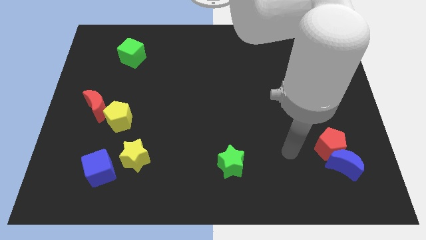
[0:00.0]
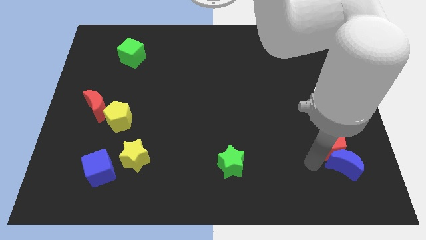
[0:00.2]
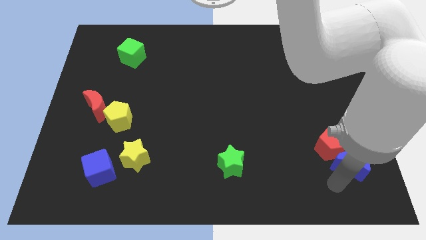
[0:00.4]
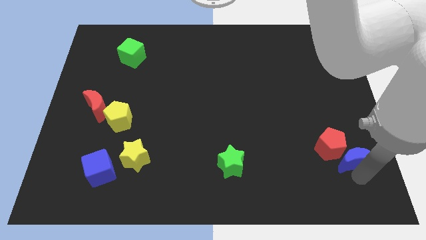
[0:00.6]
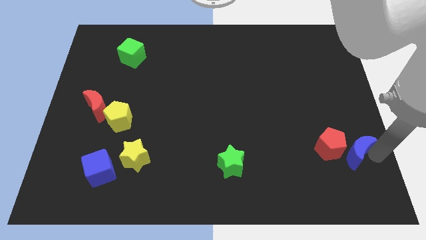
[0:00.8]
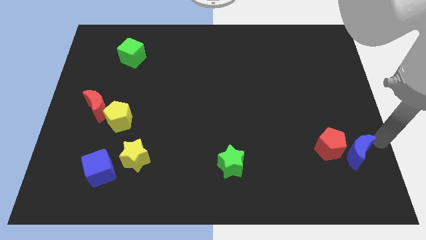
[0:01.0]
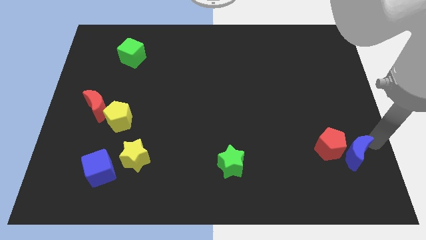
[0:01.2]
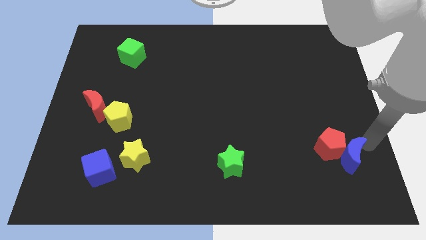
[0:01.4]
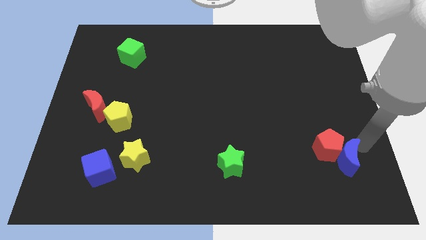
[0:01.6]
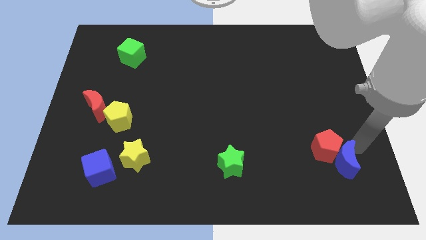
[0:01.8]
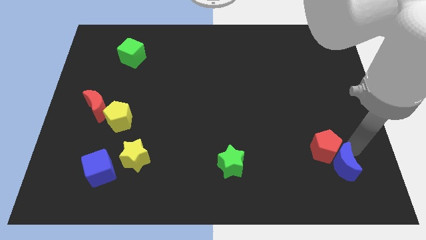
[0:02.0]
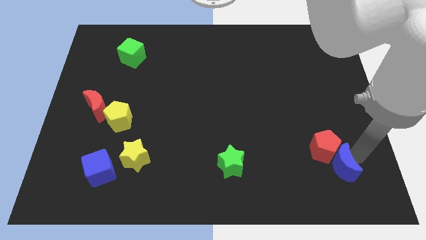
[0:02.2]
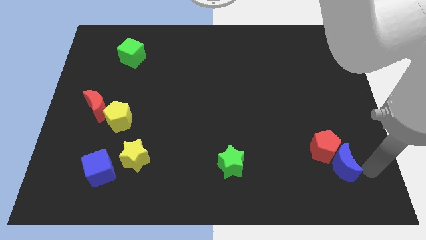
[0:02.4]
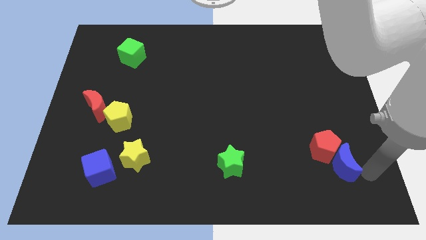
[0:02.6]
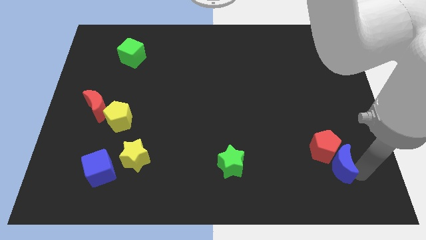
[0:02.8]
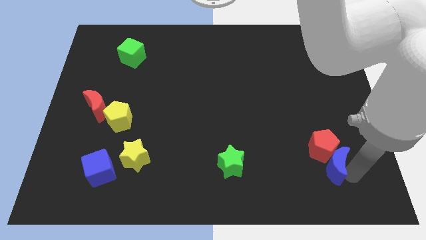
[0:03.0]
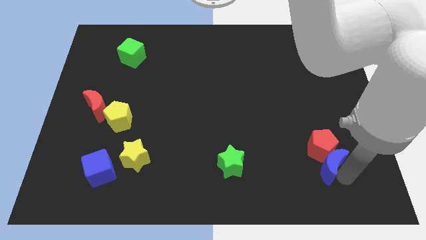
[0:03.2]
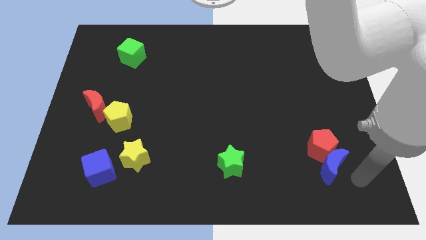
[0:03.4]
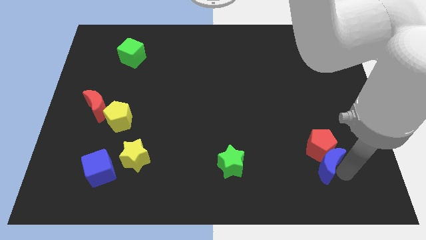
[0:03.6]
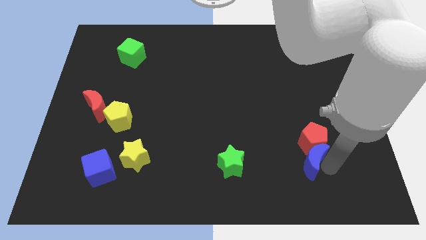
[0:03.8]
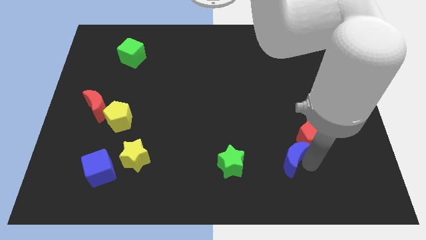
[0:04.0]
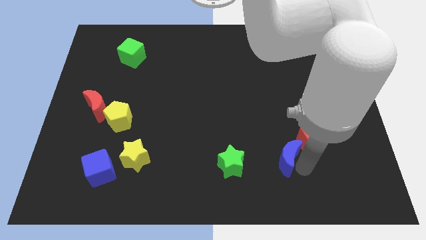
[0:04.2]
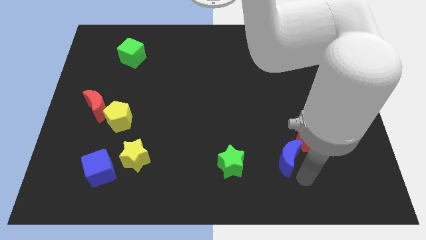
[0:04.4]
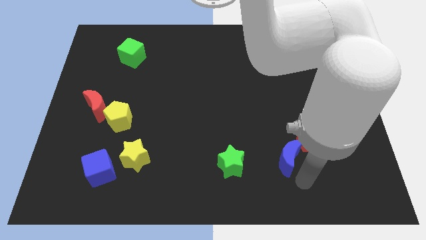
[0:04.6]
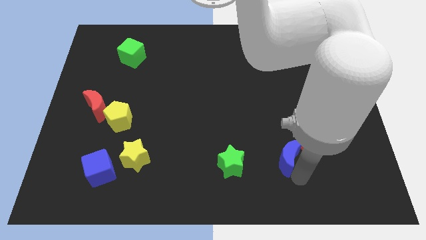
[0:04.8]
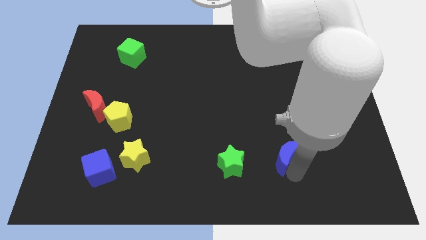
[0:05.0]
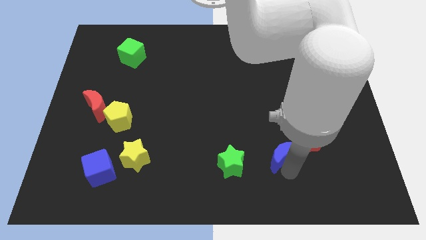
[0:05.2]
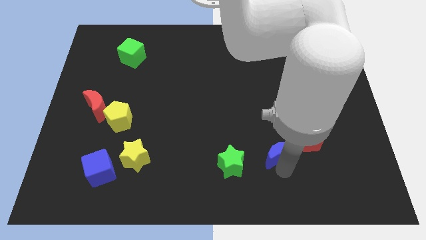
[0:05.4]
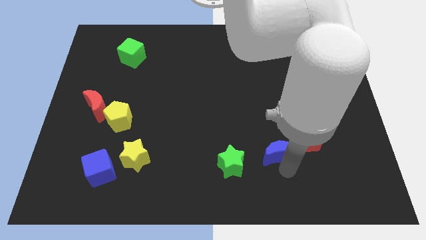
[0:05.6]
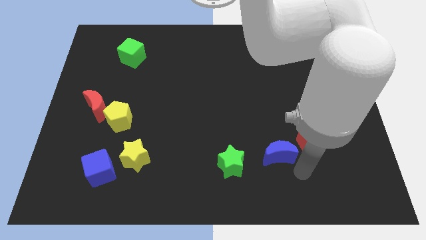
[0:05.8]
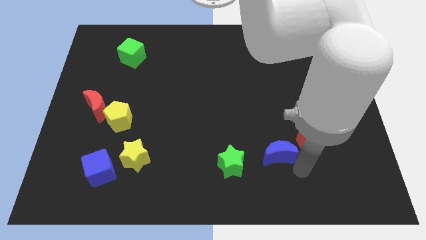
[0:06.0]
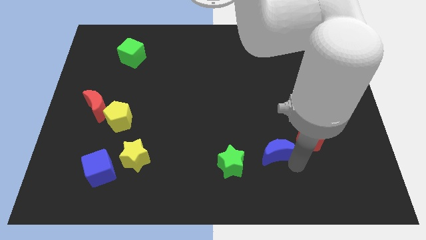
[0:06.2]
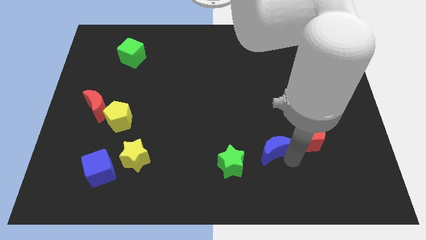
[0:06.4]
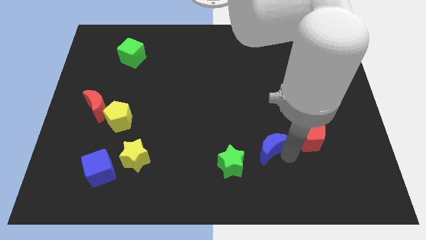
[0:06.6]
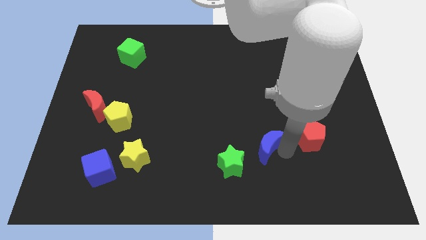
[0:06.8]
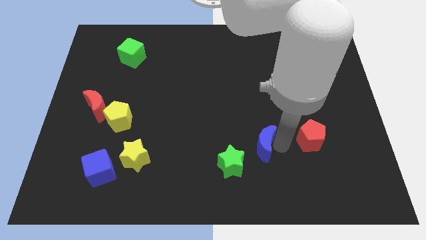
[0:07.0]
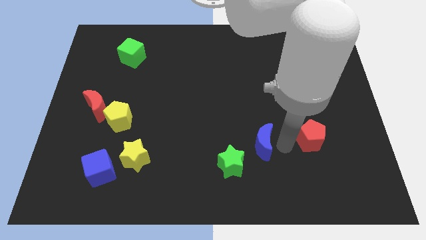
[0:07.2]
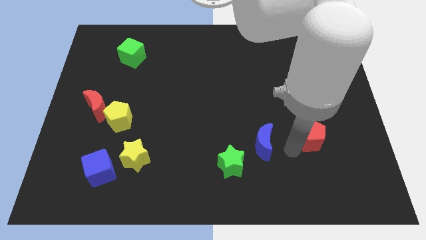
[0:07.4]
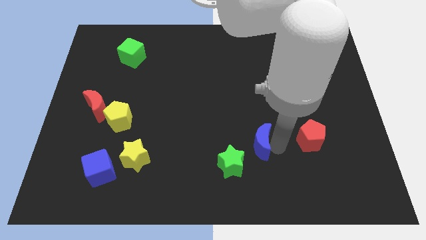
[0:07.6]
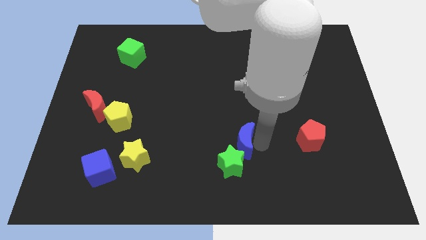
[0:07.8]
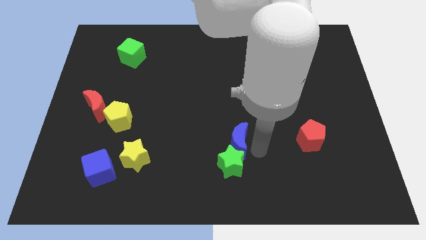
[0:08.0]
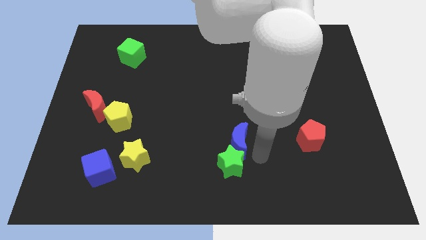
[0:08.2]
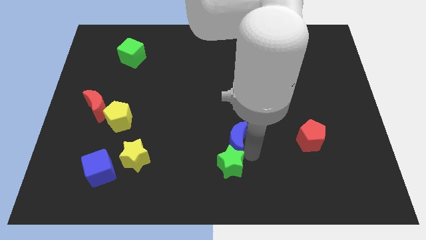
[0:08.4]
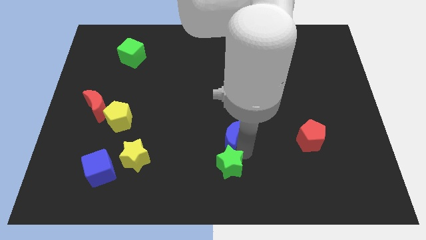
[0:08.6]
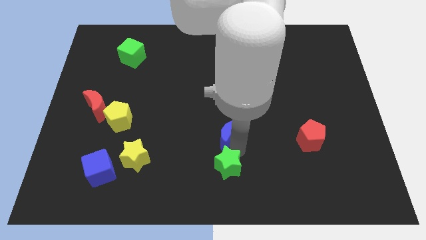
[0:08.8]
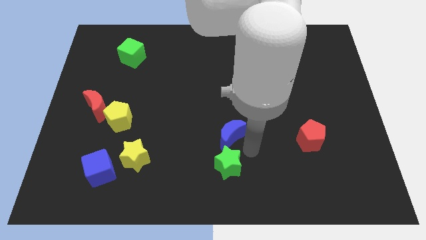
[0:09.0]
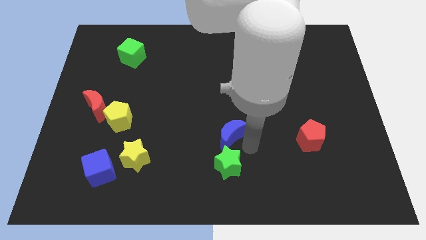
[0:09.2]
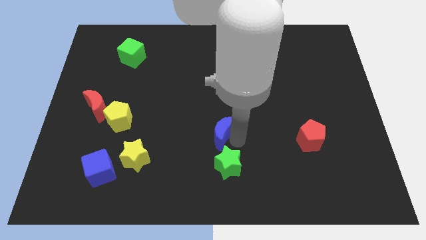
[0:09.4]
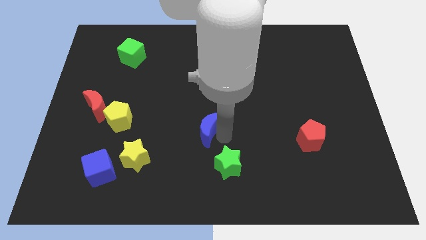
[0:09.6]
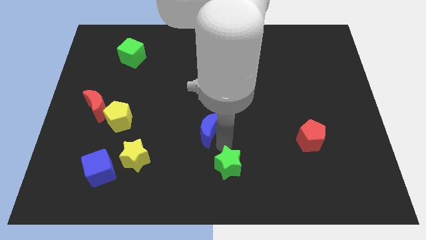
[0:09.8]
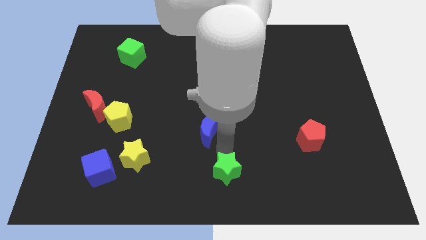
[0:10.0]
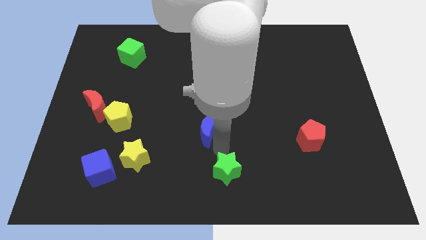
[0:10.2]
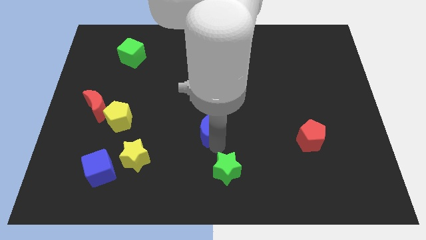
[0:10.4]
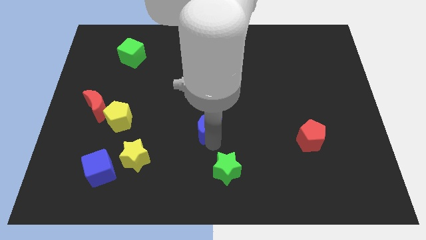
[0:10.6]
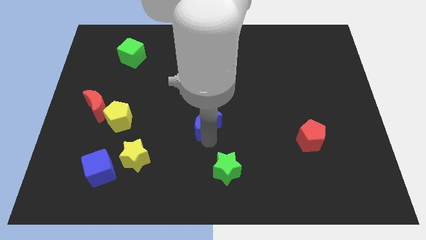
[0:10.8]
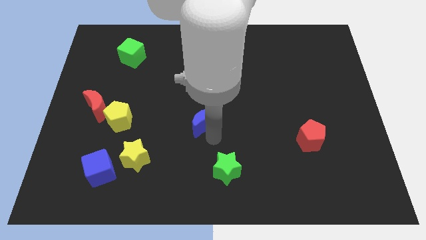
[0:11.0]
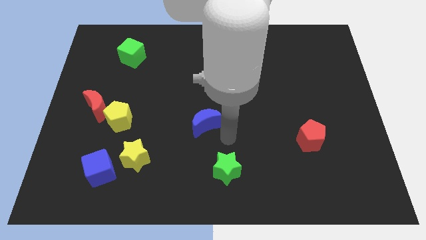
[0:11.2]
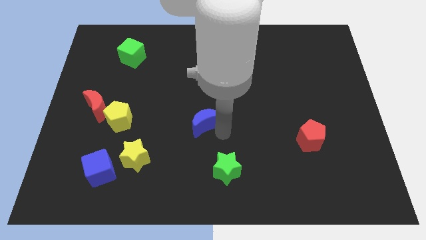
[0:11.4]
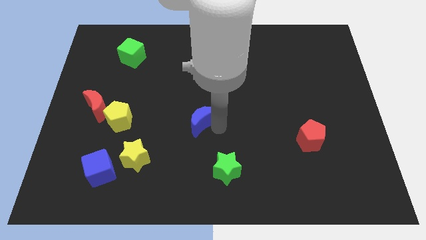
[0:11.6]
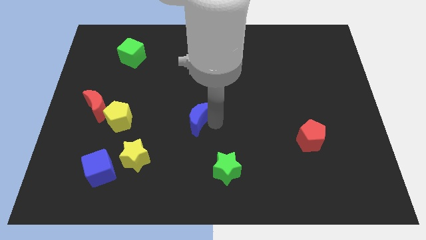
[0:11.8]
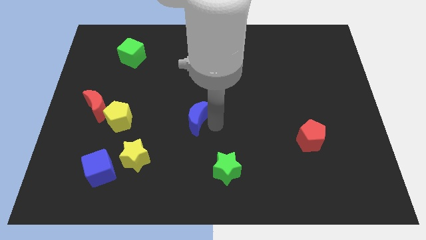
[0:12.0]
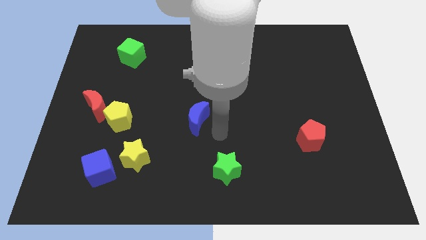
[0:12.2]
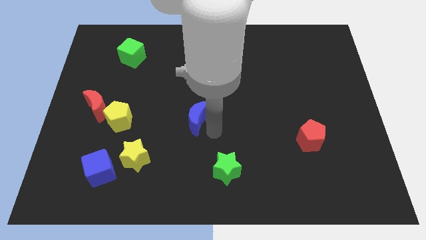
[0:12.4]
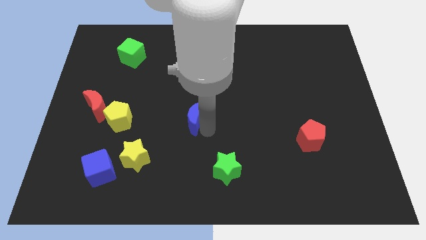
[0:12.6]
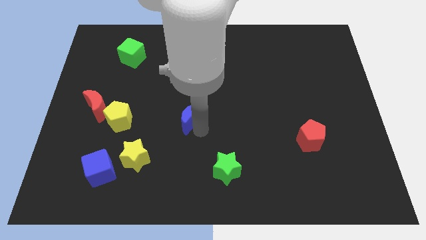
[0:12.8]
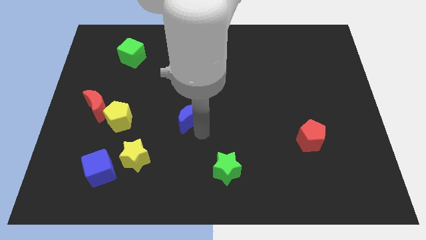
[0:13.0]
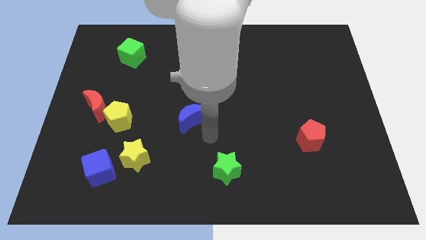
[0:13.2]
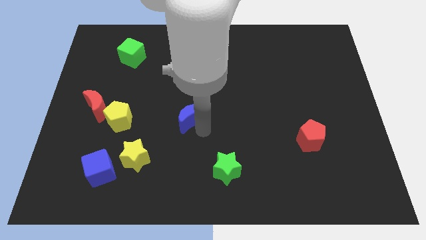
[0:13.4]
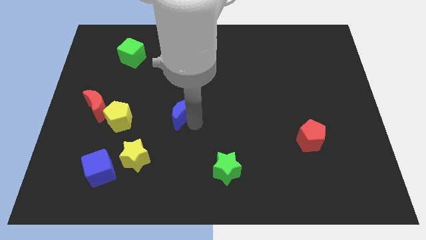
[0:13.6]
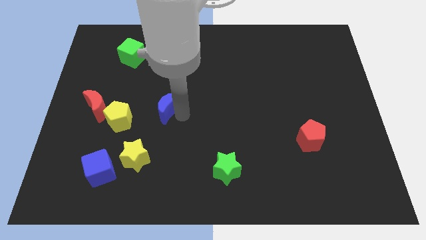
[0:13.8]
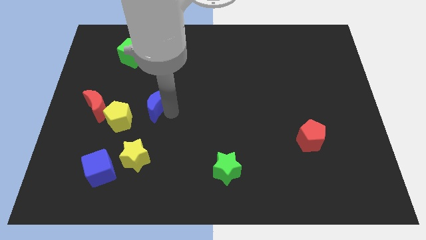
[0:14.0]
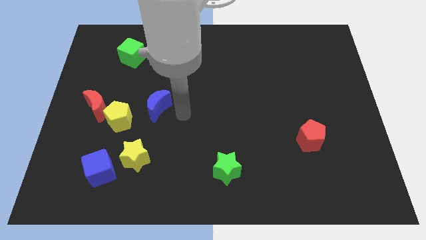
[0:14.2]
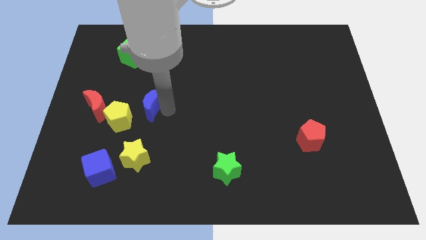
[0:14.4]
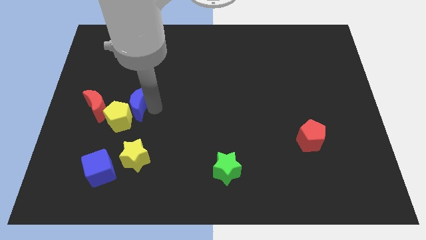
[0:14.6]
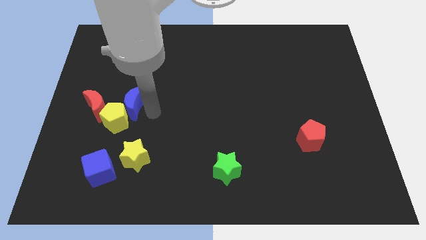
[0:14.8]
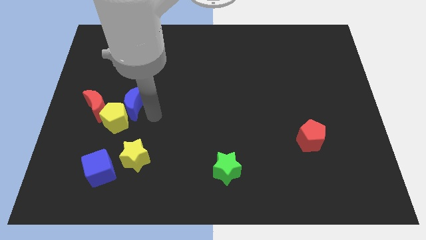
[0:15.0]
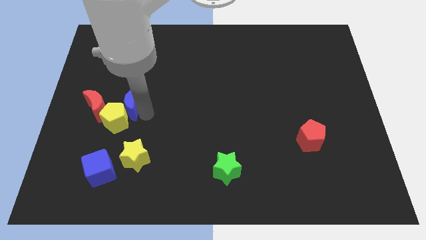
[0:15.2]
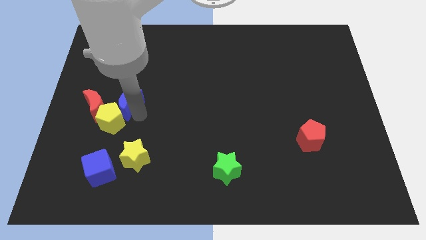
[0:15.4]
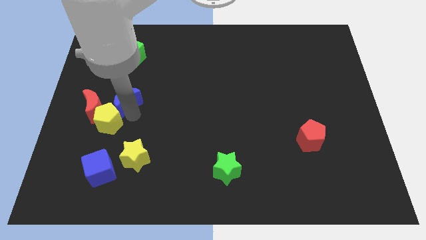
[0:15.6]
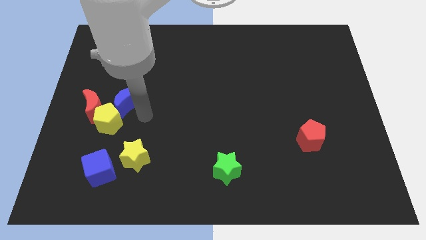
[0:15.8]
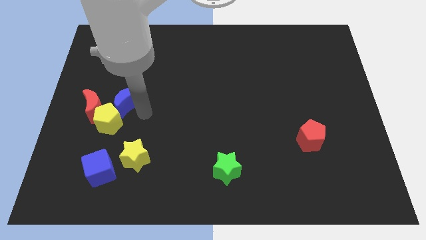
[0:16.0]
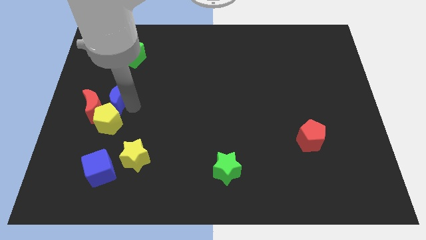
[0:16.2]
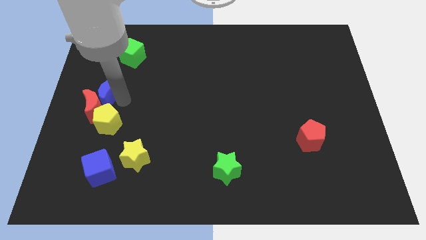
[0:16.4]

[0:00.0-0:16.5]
put the blue moon to the center left
